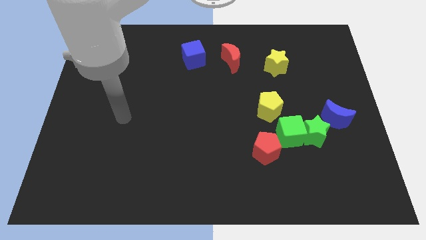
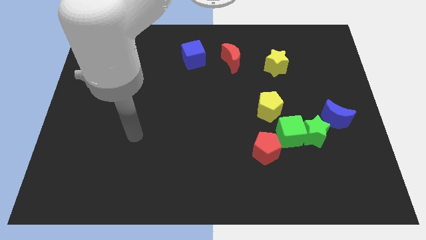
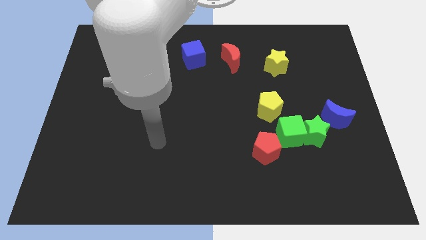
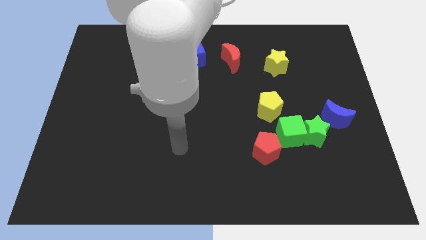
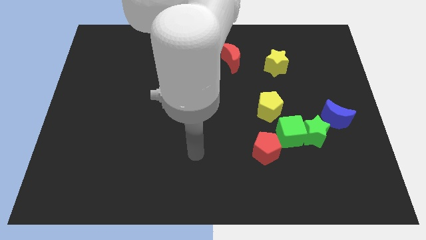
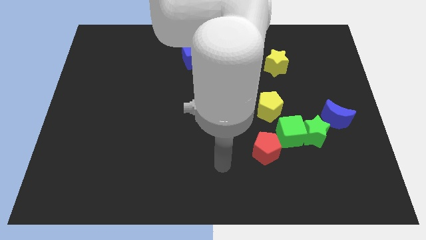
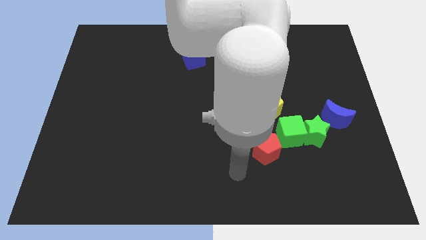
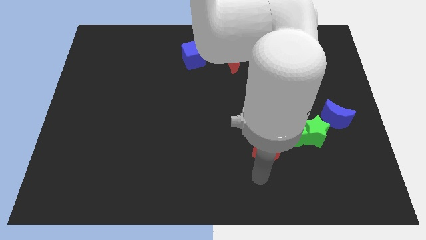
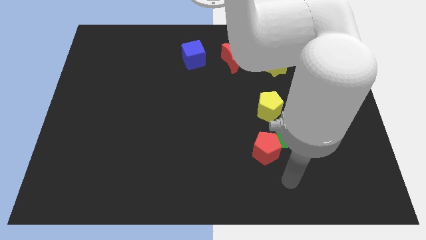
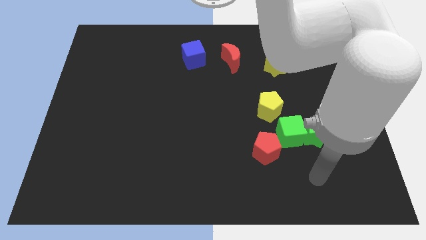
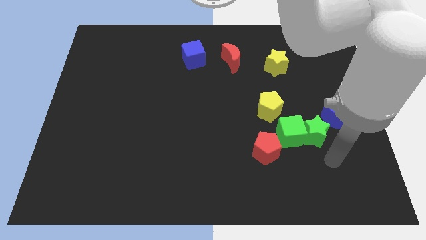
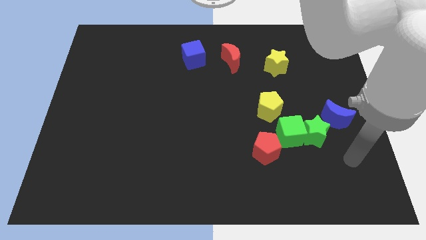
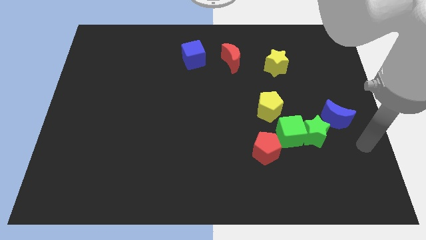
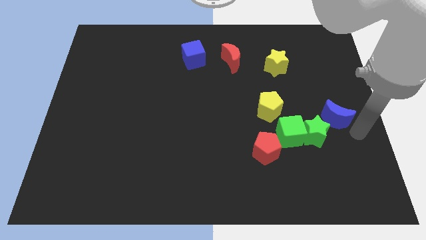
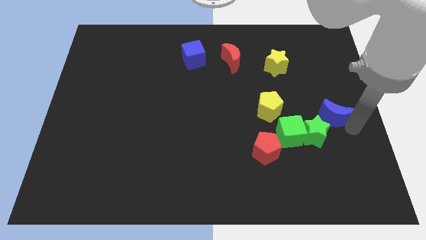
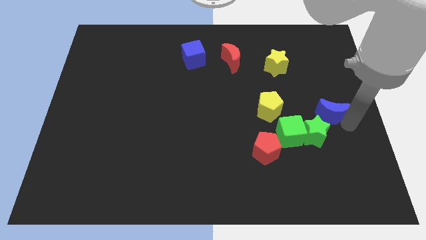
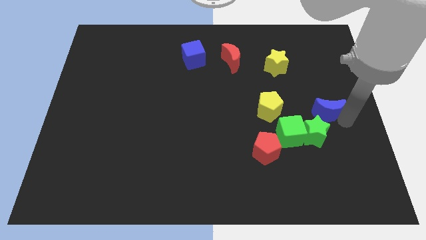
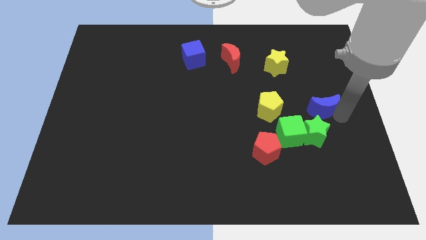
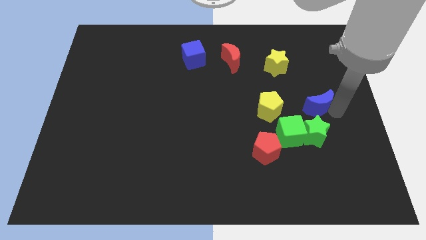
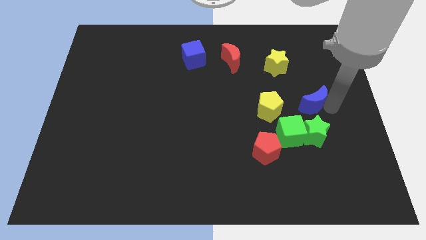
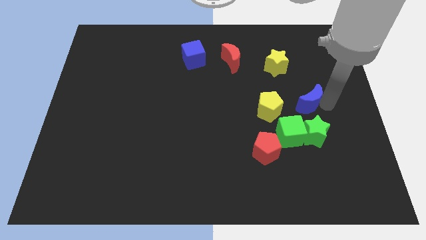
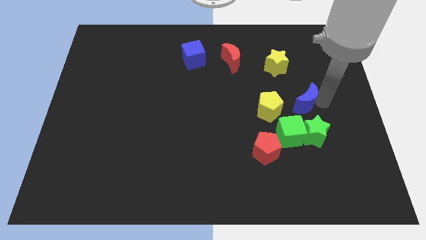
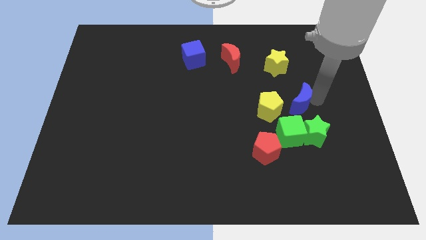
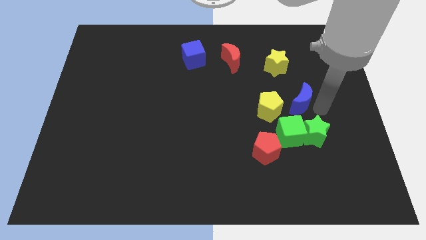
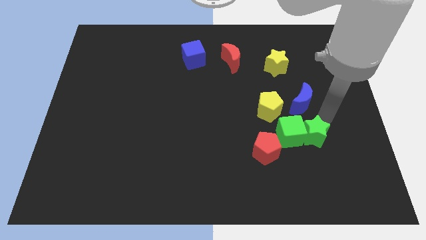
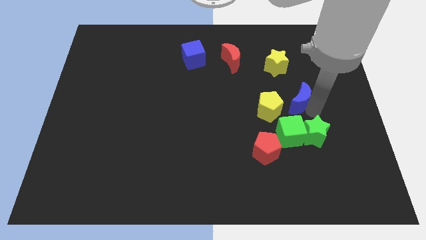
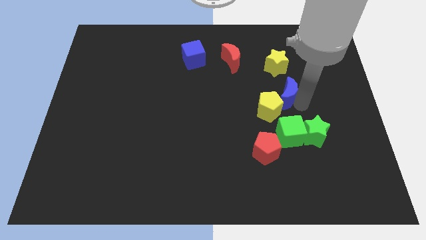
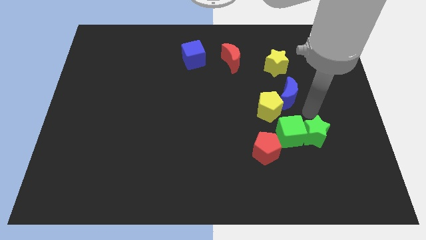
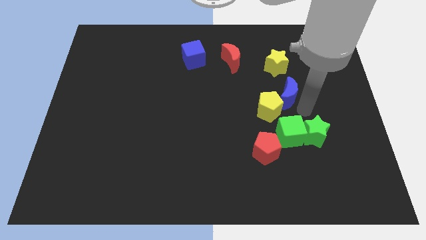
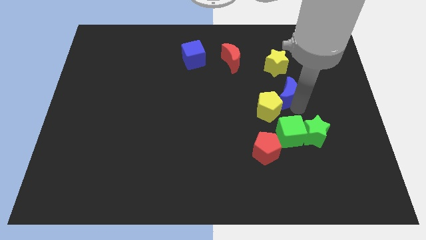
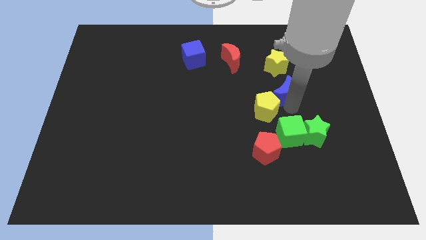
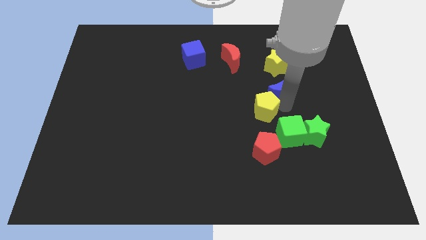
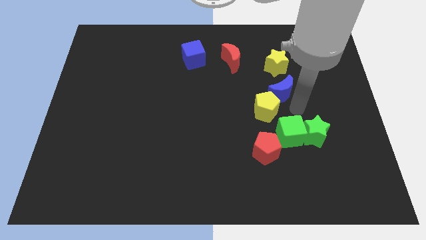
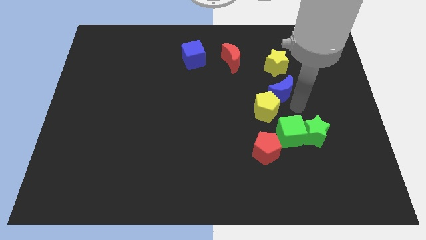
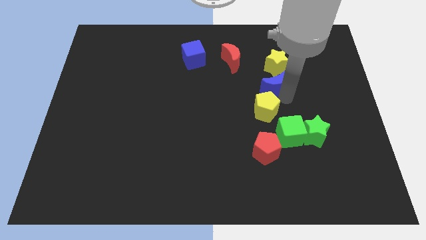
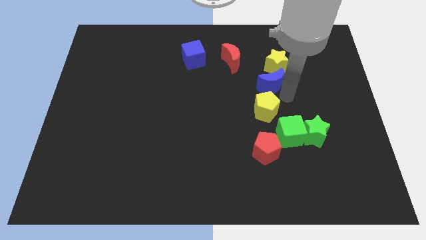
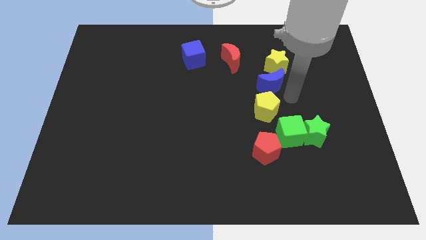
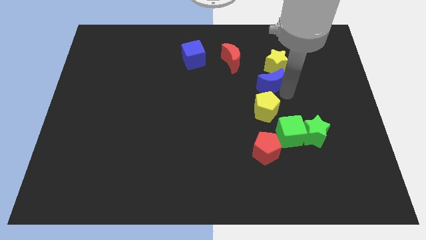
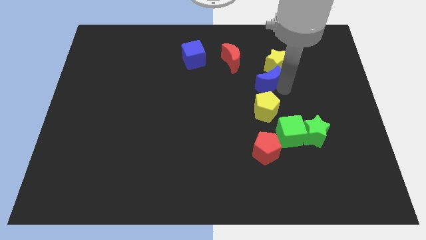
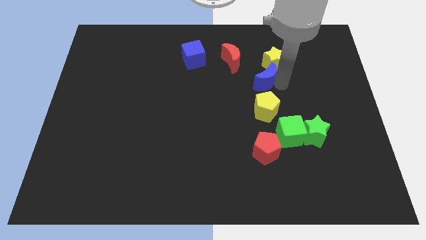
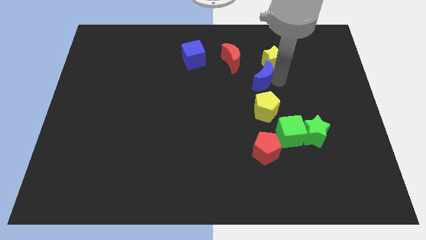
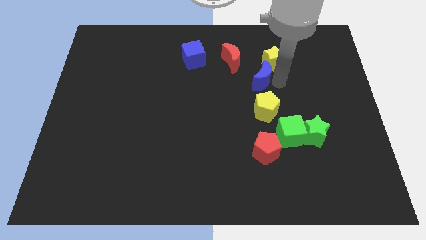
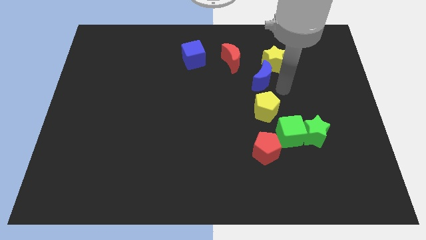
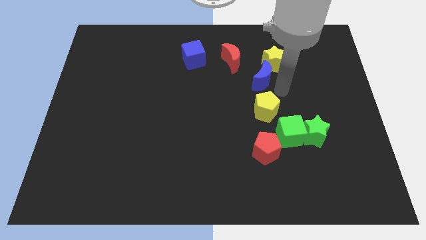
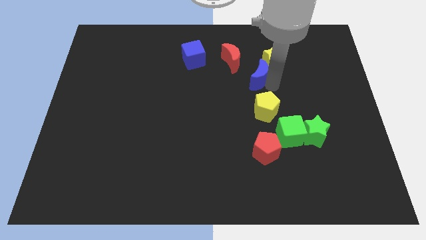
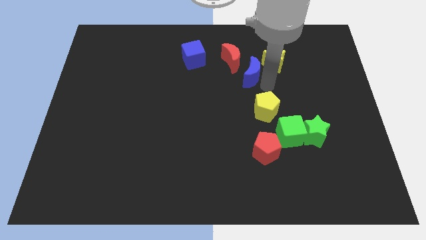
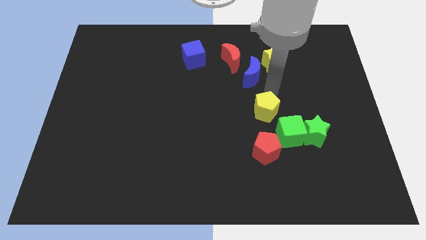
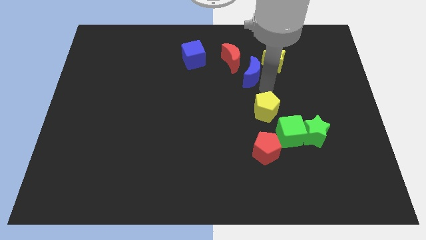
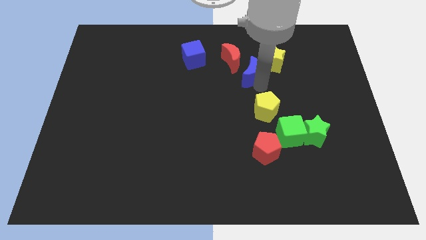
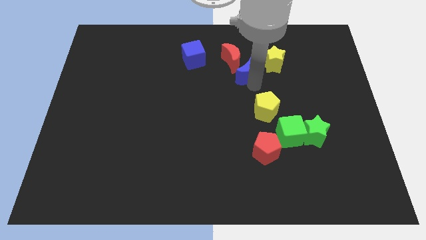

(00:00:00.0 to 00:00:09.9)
push the blue moon next to the red moon

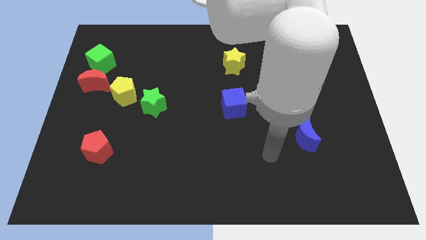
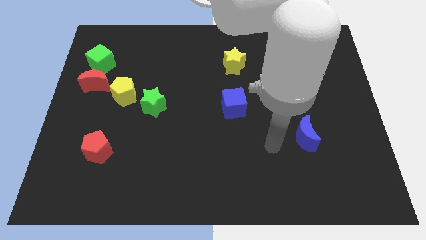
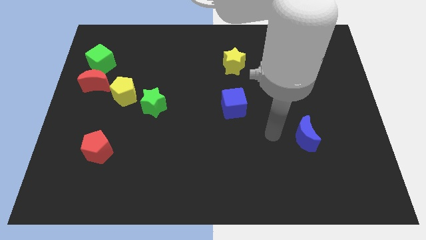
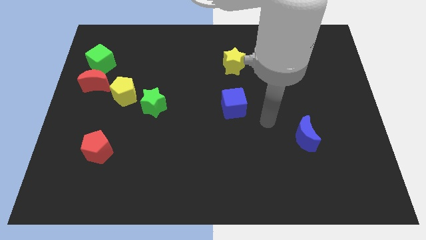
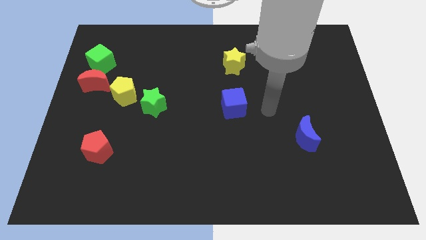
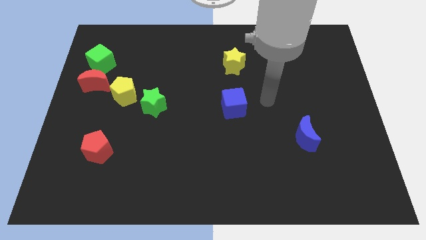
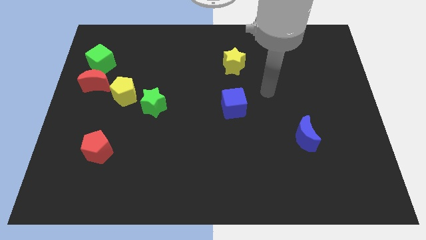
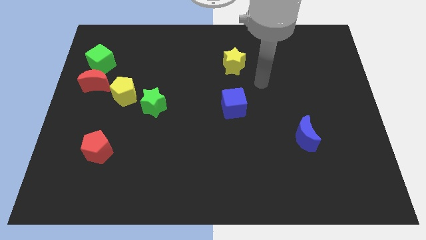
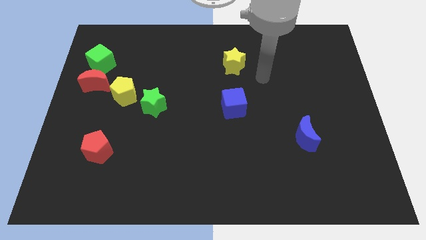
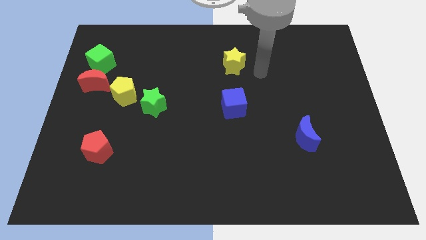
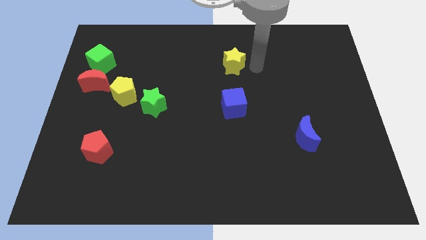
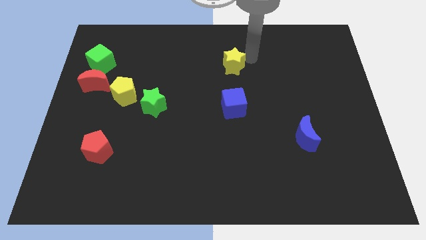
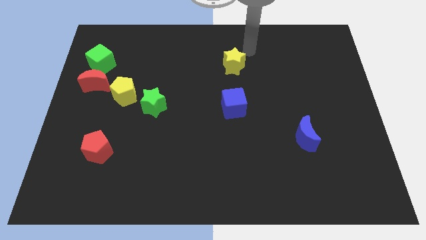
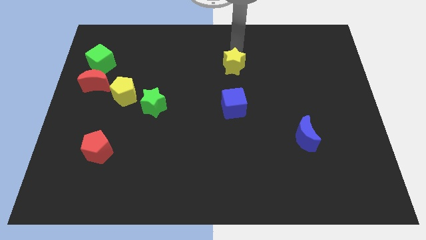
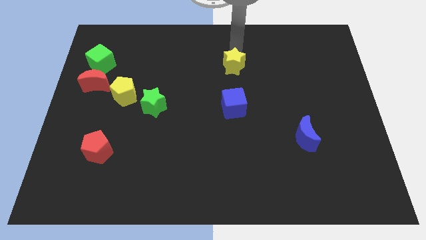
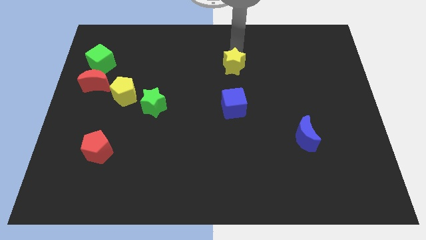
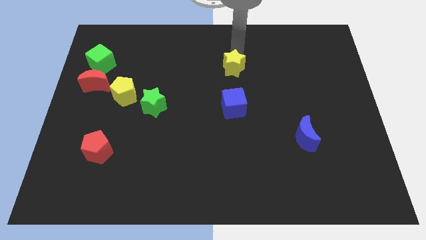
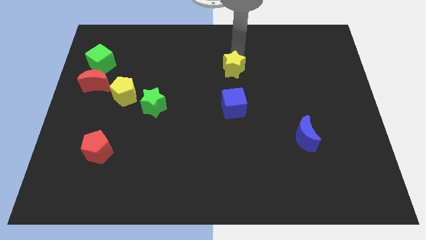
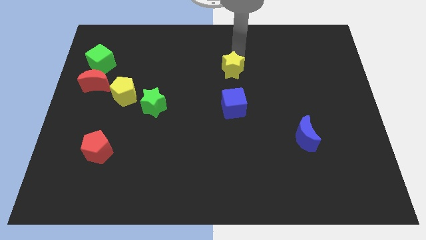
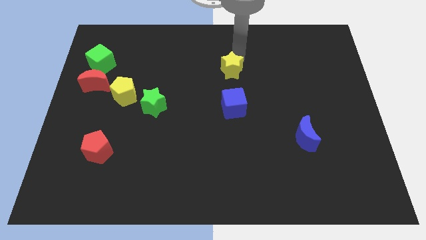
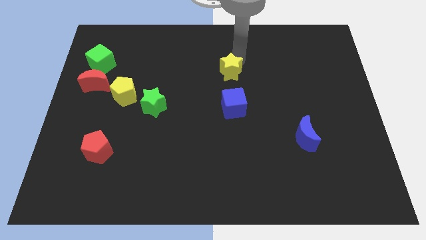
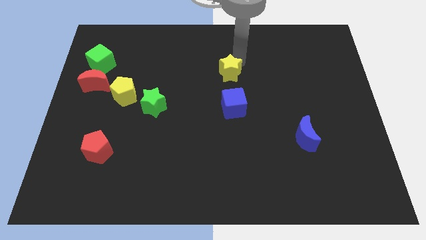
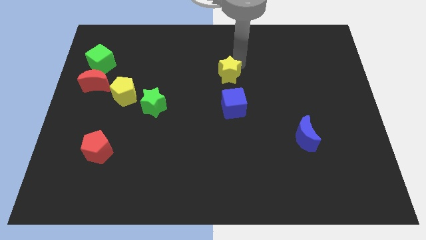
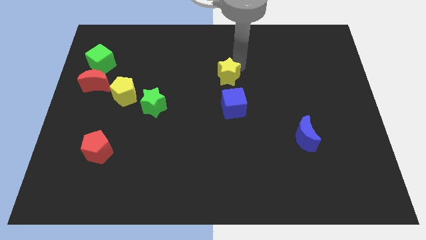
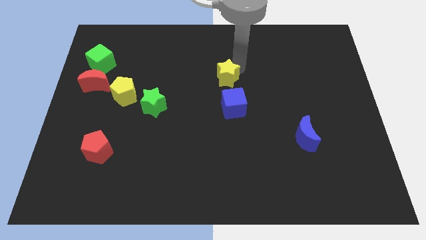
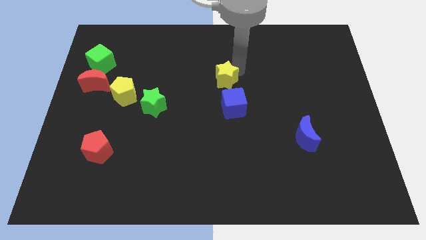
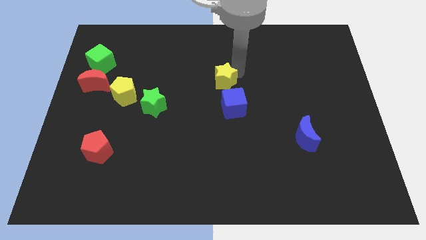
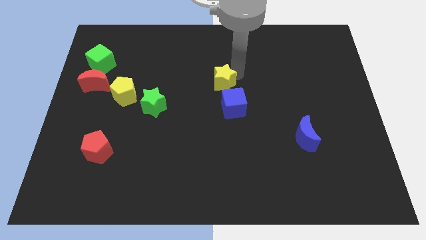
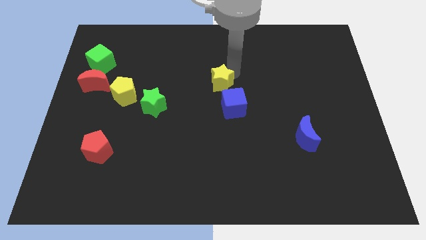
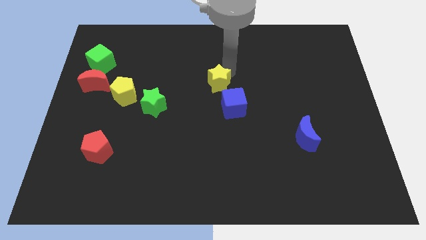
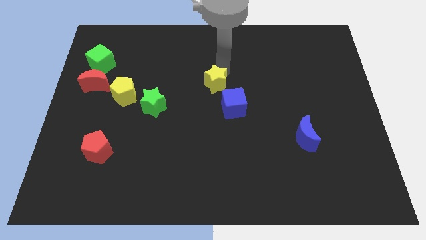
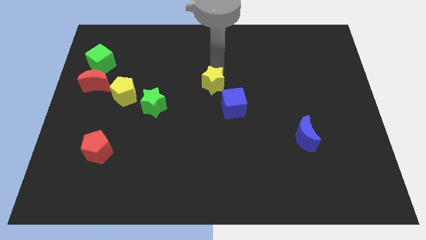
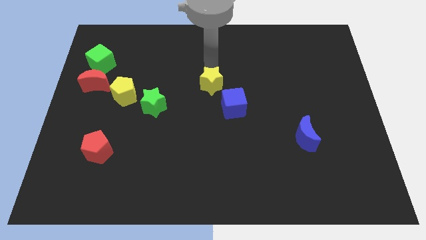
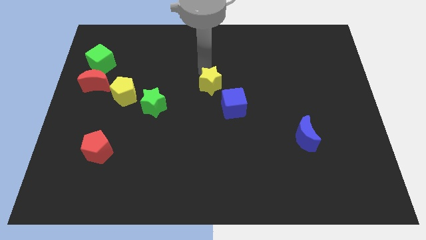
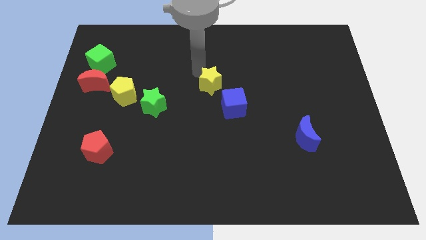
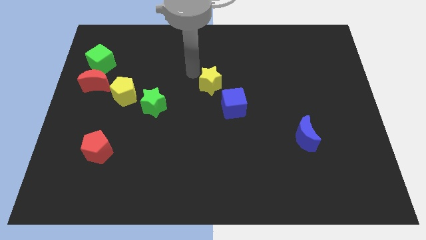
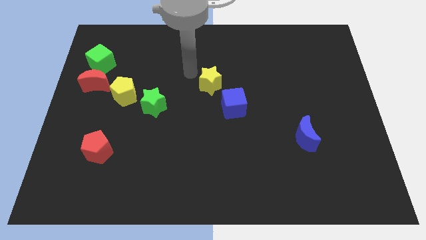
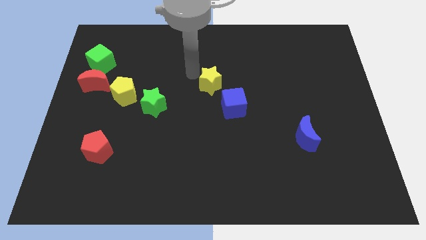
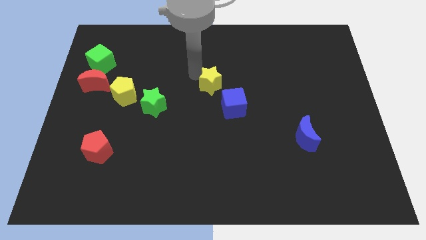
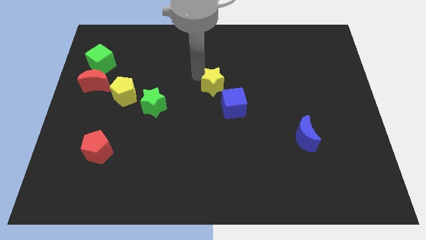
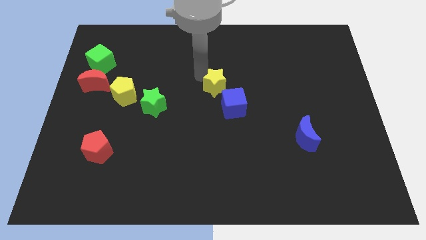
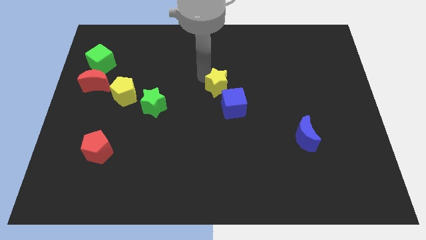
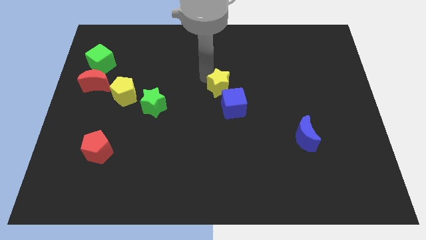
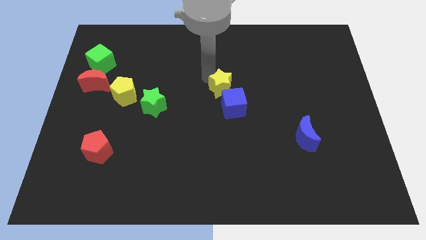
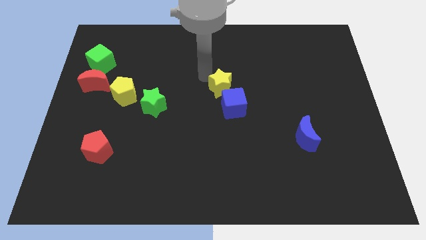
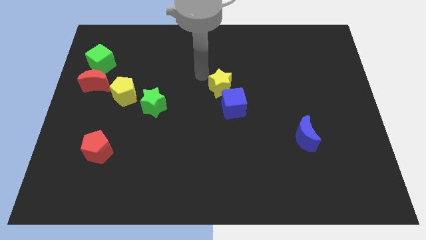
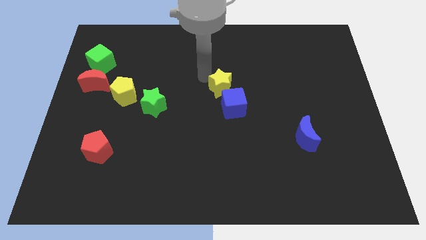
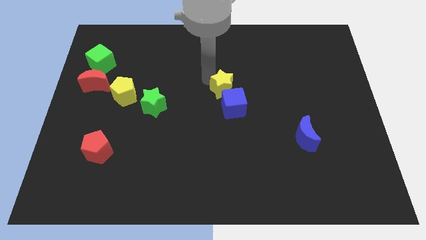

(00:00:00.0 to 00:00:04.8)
put the yellow star close to the blue cube
